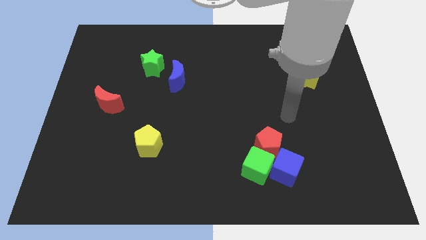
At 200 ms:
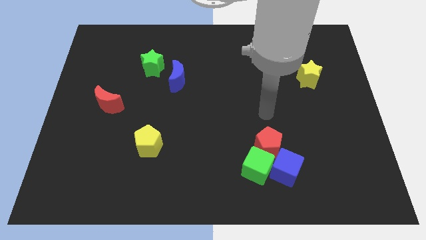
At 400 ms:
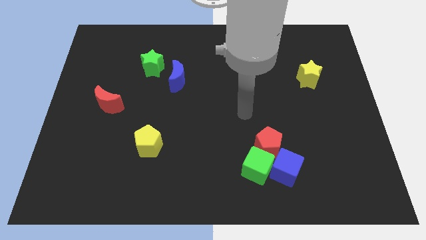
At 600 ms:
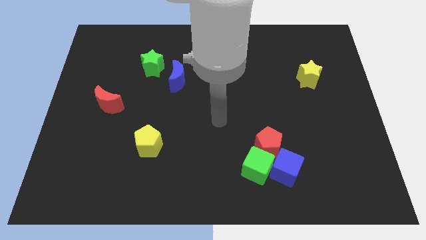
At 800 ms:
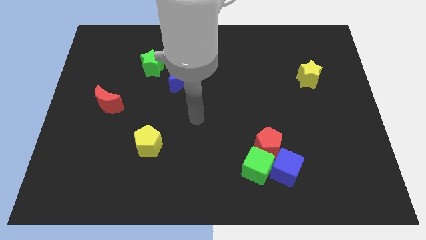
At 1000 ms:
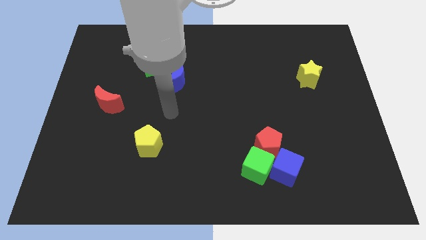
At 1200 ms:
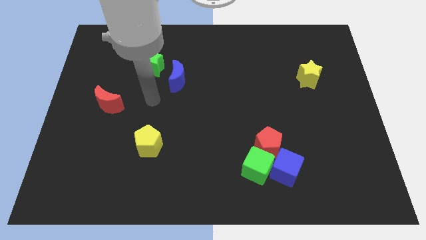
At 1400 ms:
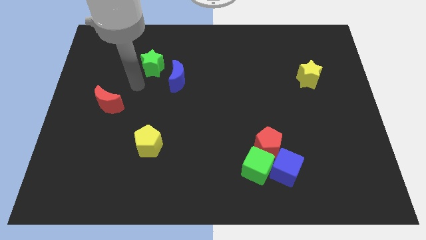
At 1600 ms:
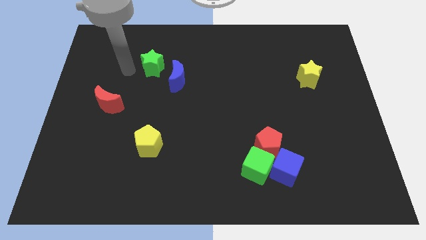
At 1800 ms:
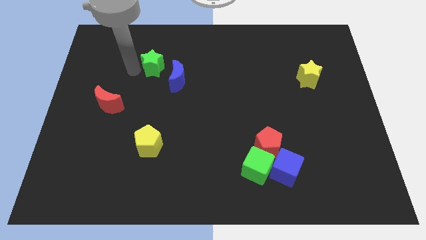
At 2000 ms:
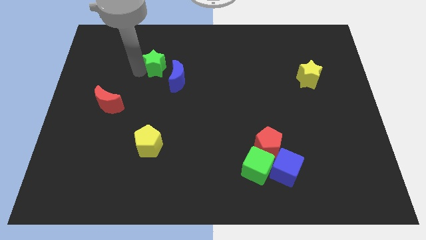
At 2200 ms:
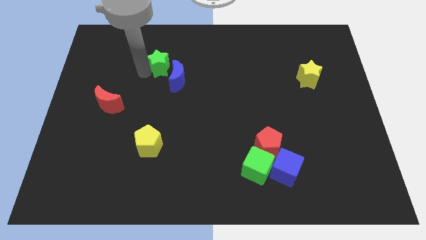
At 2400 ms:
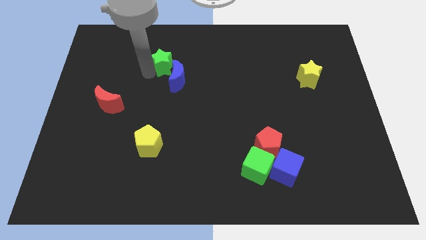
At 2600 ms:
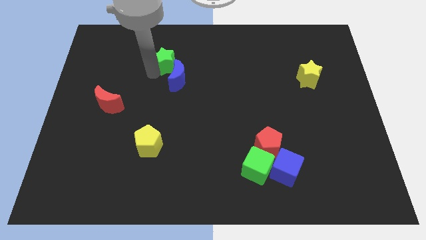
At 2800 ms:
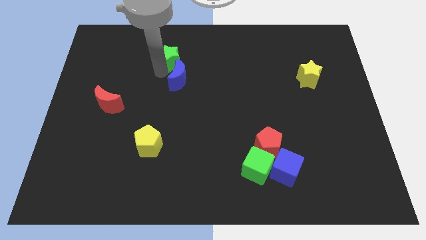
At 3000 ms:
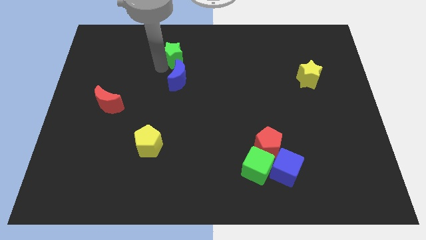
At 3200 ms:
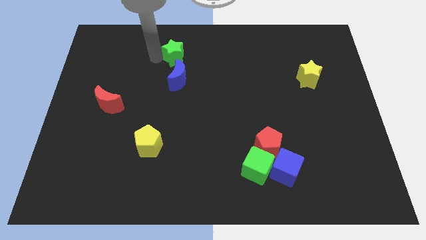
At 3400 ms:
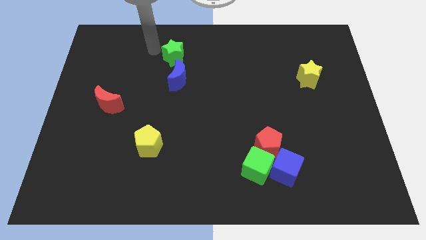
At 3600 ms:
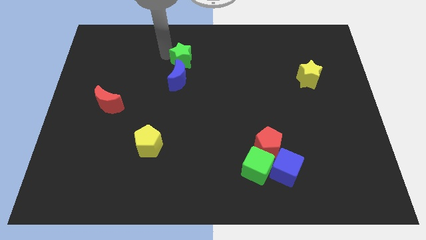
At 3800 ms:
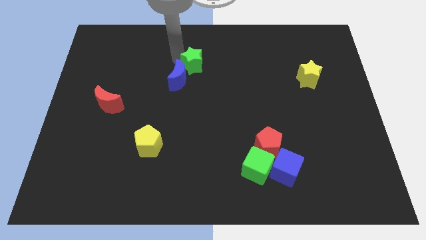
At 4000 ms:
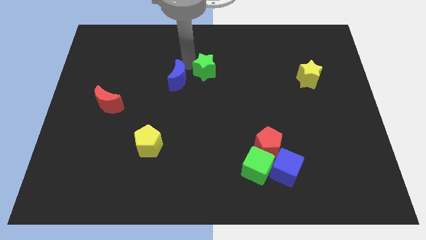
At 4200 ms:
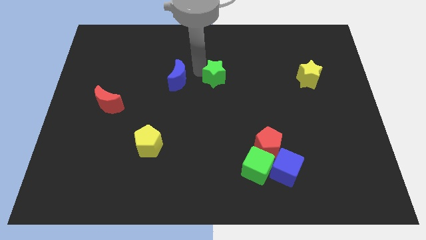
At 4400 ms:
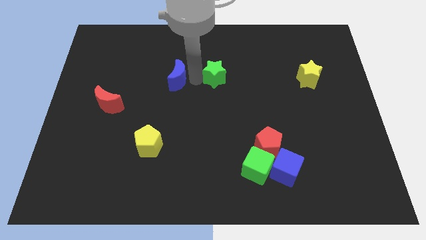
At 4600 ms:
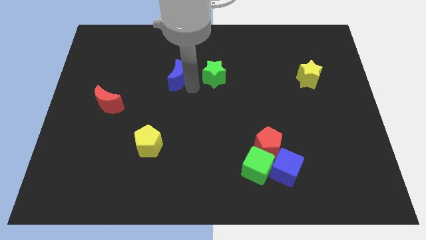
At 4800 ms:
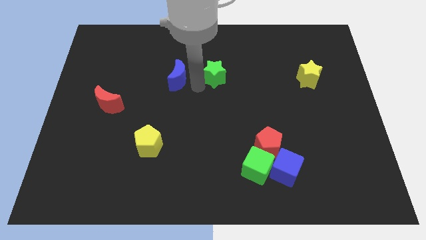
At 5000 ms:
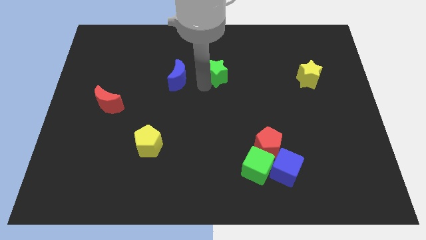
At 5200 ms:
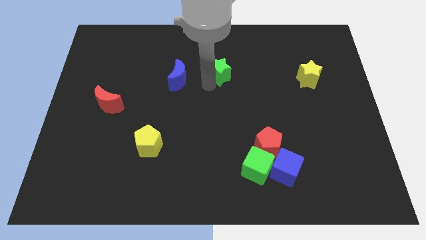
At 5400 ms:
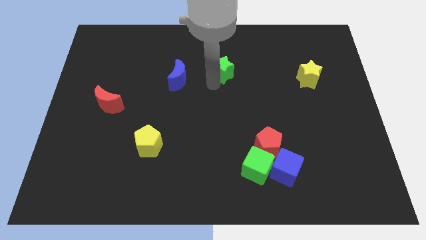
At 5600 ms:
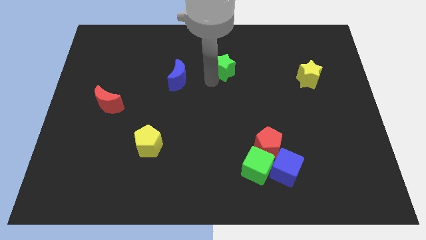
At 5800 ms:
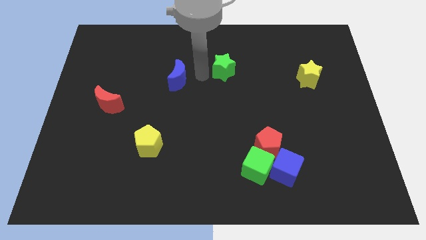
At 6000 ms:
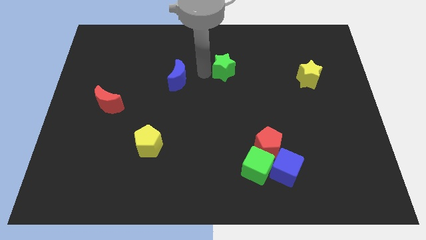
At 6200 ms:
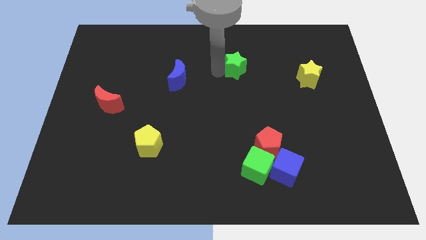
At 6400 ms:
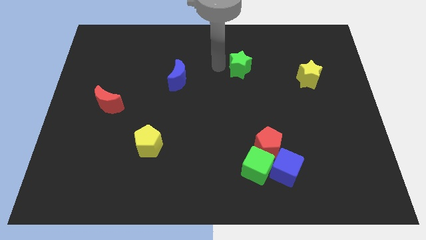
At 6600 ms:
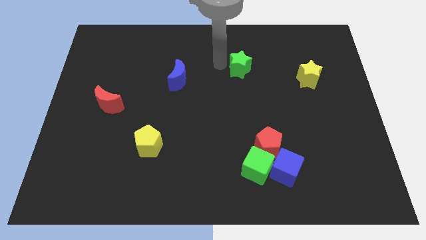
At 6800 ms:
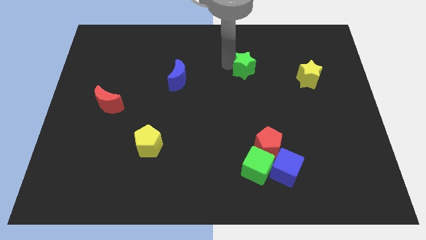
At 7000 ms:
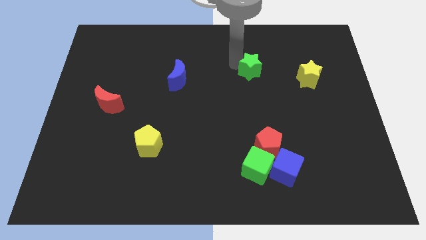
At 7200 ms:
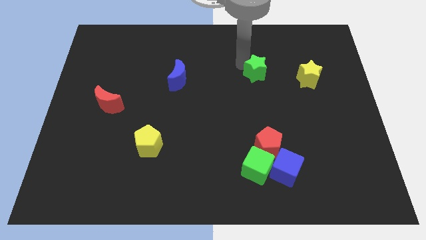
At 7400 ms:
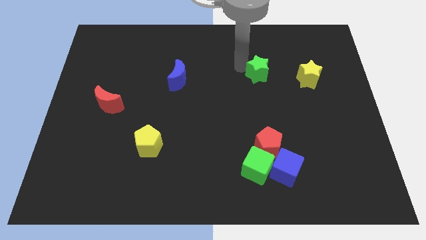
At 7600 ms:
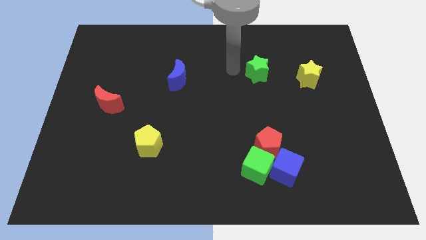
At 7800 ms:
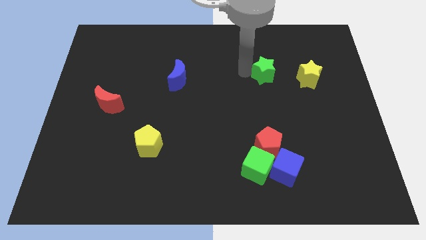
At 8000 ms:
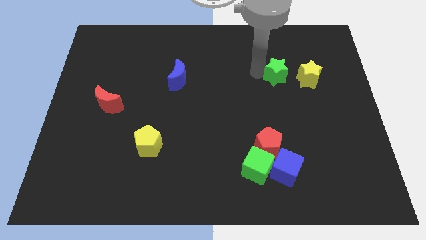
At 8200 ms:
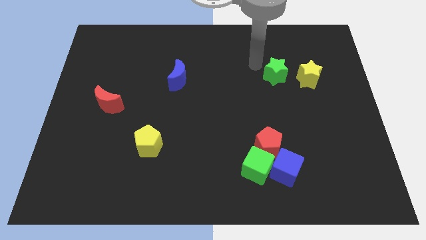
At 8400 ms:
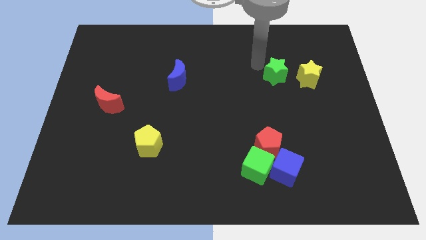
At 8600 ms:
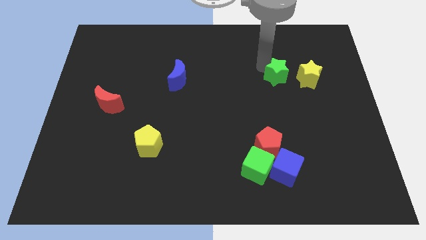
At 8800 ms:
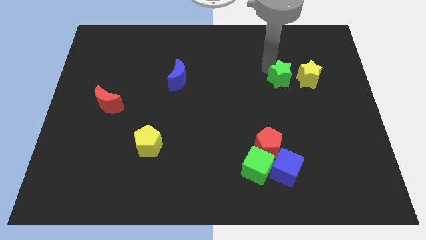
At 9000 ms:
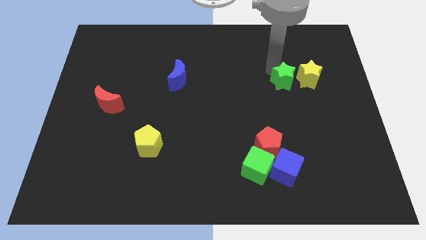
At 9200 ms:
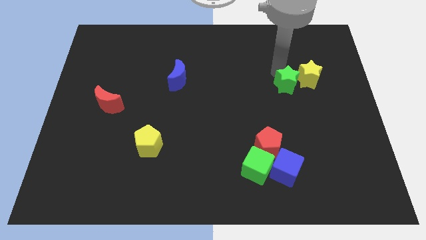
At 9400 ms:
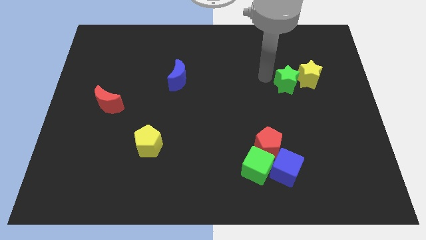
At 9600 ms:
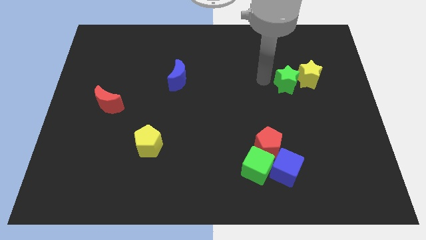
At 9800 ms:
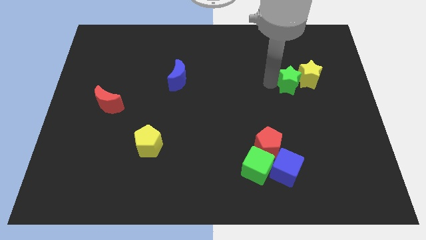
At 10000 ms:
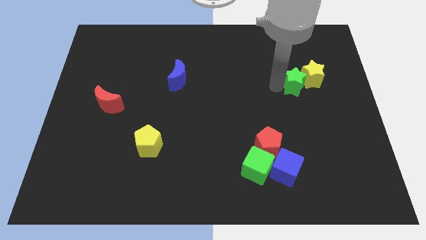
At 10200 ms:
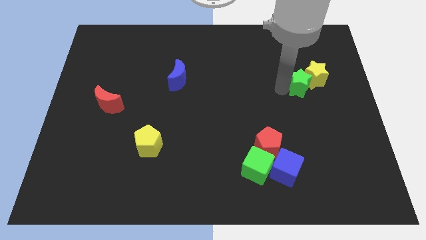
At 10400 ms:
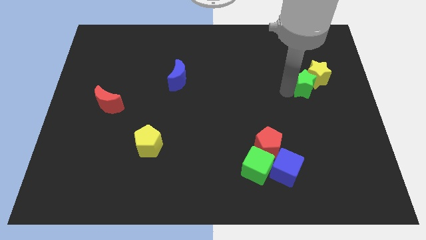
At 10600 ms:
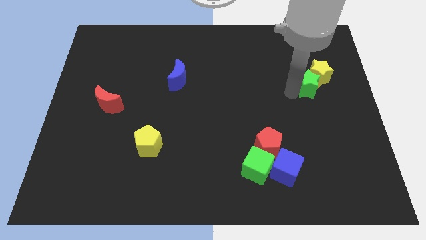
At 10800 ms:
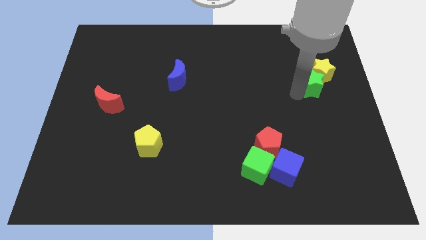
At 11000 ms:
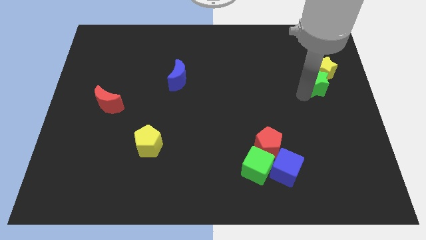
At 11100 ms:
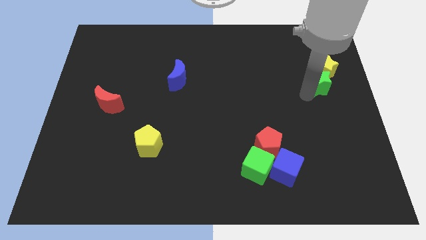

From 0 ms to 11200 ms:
put the green star to the right side of the board
